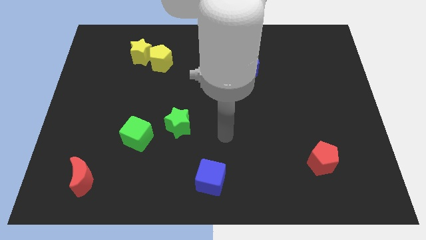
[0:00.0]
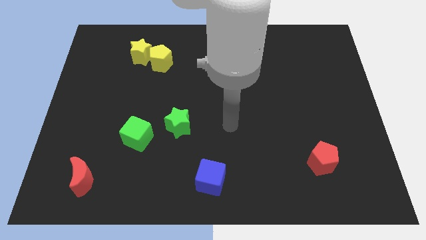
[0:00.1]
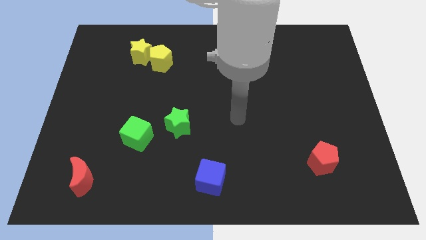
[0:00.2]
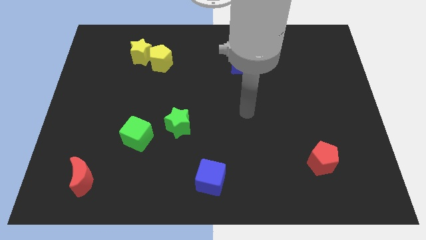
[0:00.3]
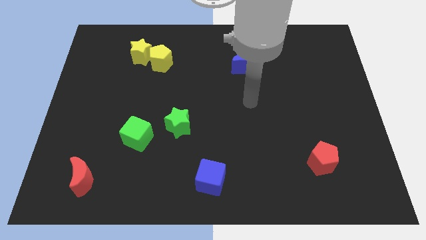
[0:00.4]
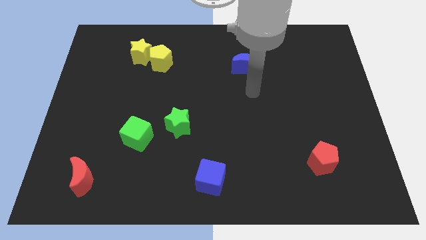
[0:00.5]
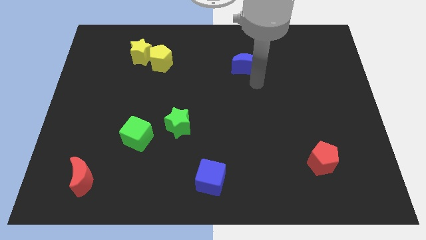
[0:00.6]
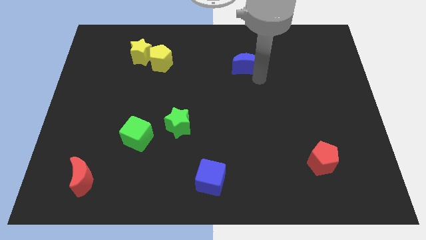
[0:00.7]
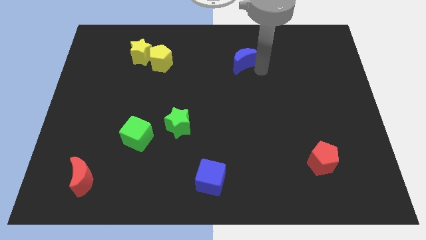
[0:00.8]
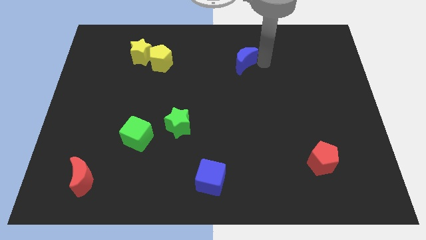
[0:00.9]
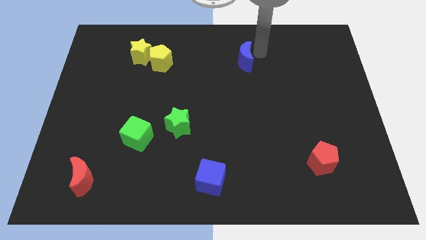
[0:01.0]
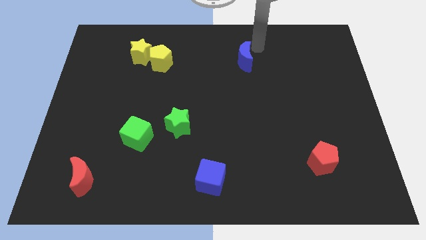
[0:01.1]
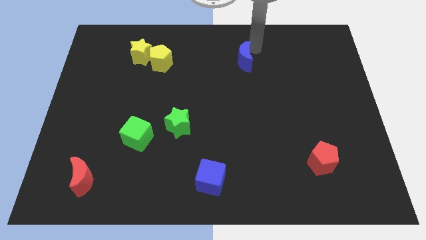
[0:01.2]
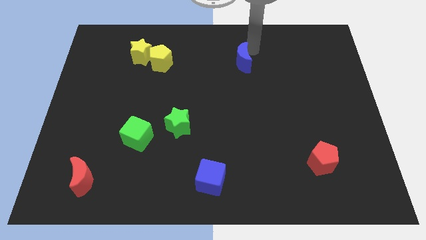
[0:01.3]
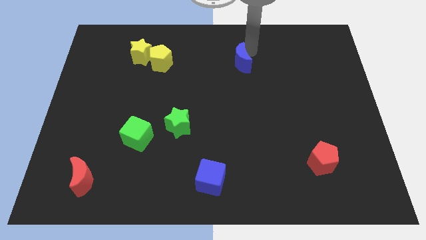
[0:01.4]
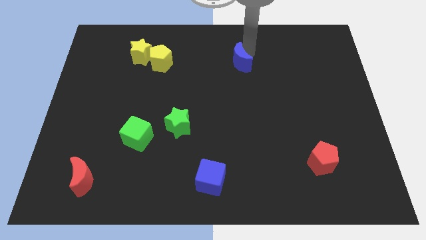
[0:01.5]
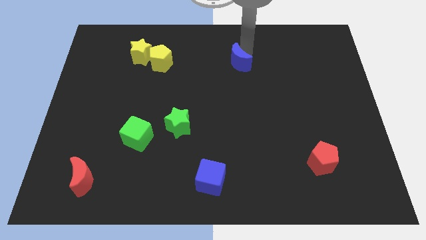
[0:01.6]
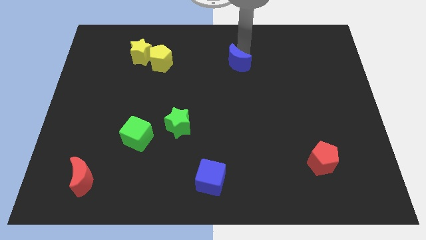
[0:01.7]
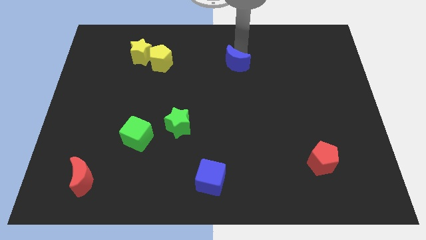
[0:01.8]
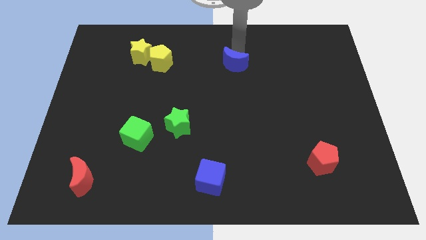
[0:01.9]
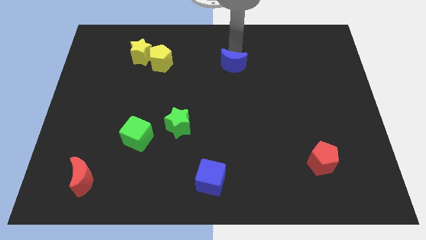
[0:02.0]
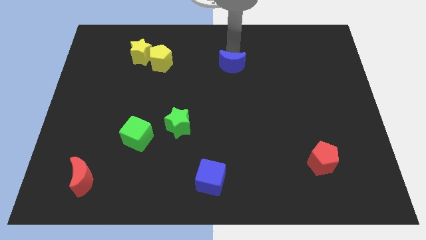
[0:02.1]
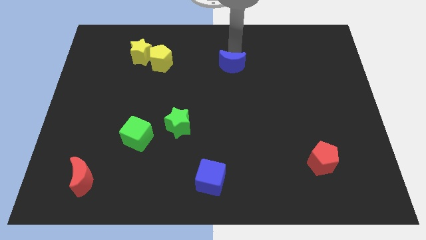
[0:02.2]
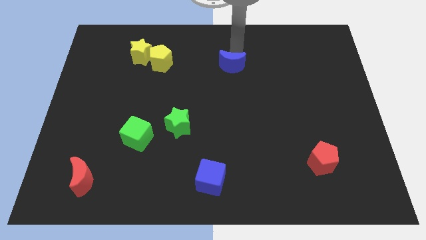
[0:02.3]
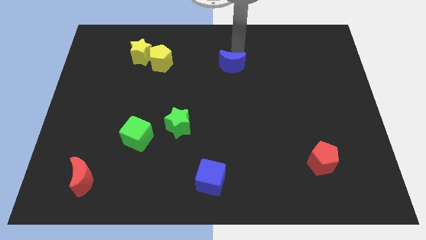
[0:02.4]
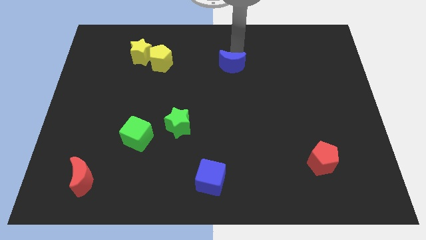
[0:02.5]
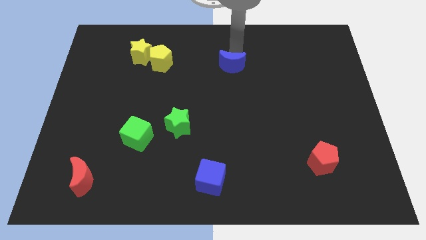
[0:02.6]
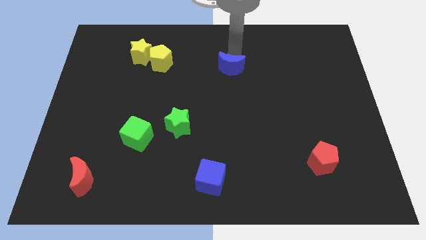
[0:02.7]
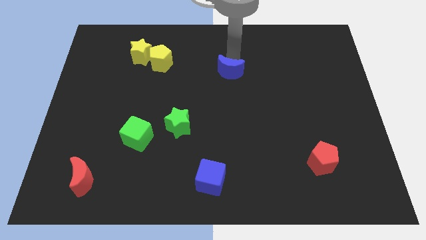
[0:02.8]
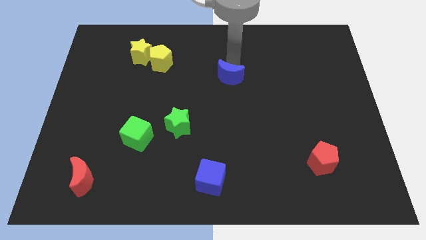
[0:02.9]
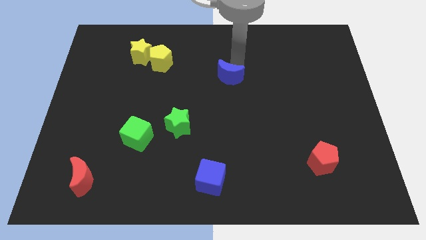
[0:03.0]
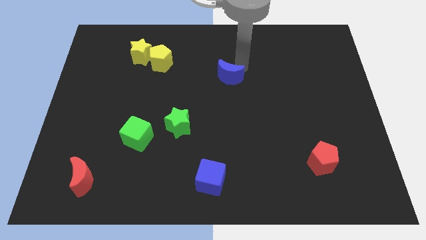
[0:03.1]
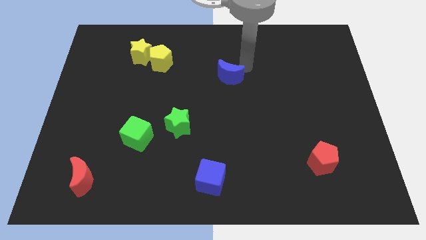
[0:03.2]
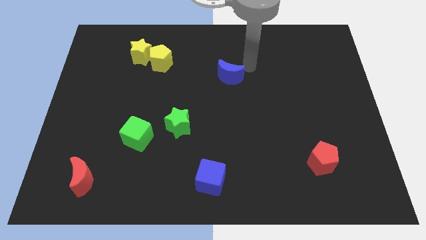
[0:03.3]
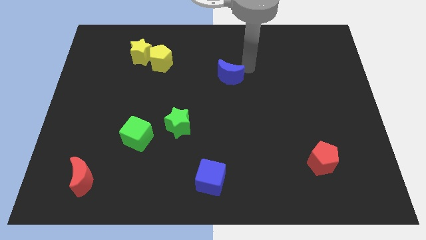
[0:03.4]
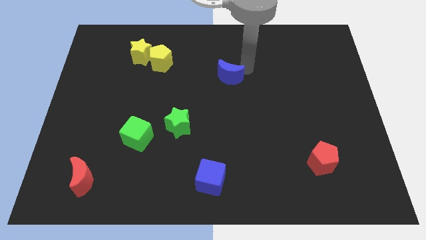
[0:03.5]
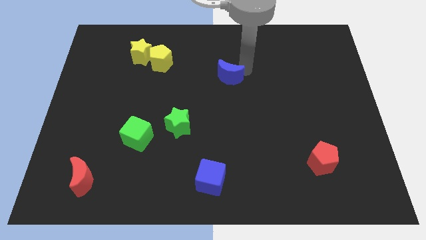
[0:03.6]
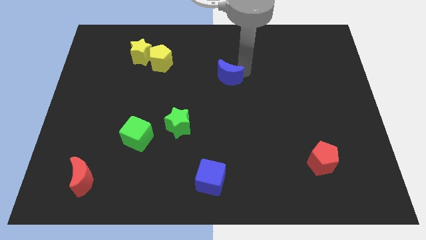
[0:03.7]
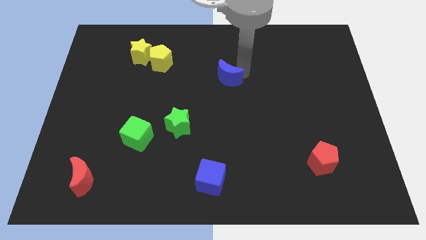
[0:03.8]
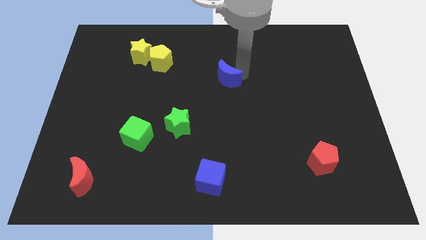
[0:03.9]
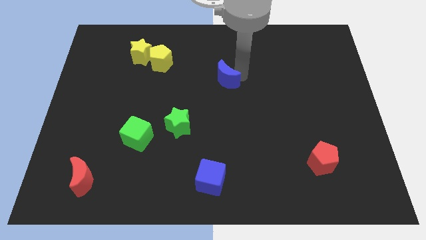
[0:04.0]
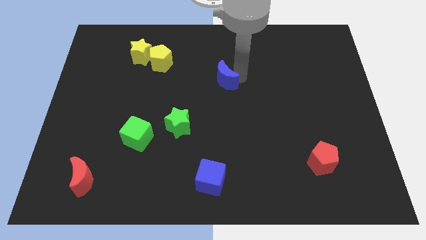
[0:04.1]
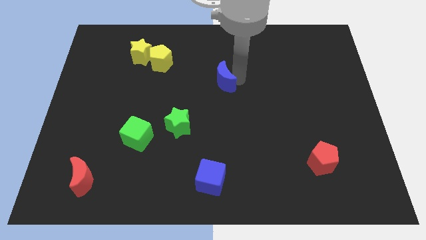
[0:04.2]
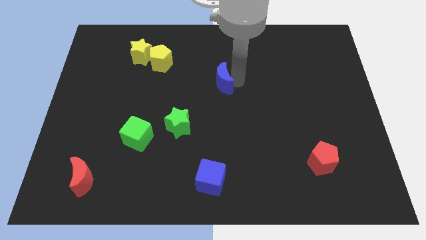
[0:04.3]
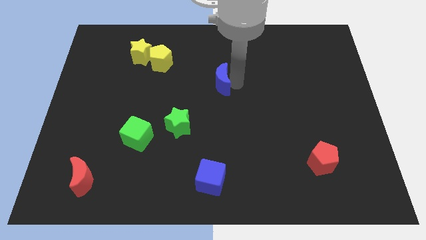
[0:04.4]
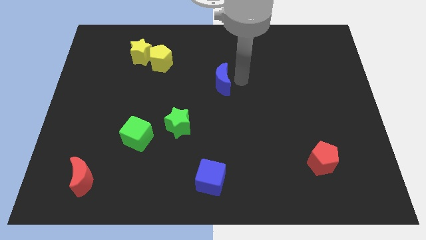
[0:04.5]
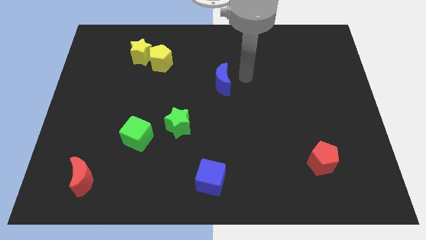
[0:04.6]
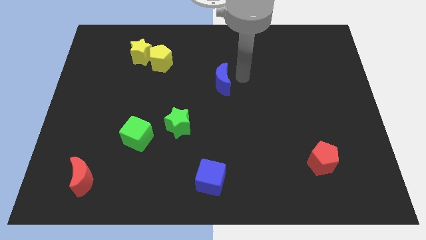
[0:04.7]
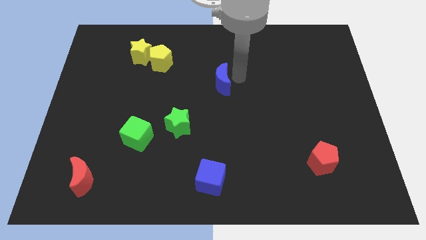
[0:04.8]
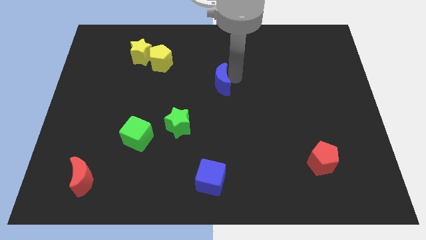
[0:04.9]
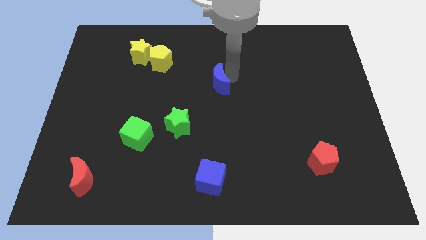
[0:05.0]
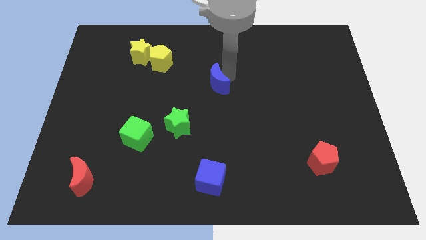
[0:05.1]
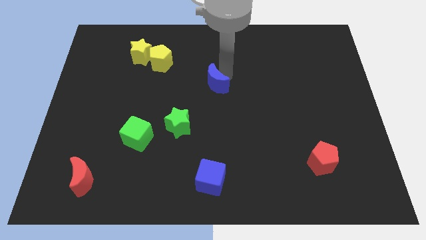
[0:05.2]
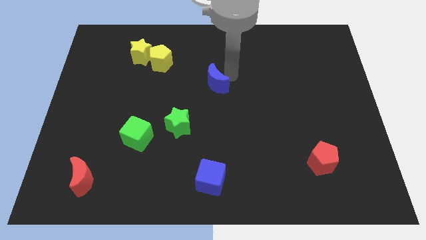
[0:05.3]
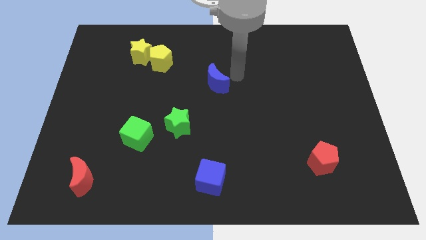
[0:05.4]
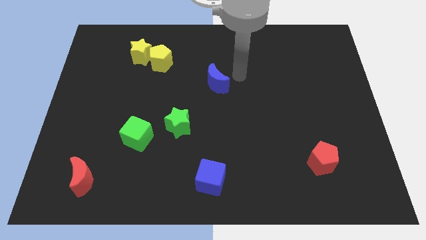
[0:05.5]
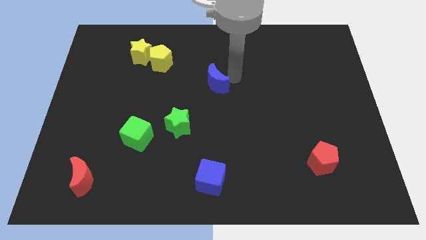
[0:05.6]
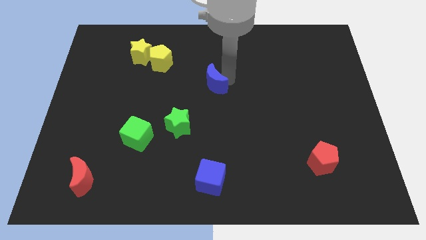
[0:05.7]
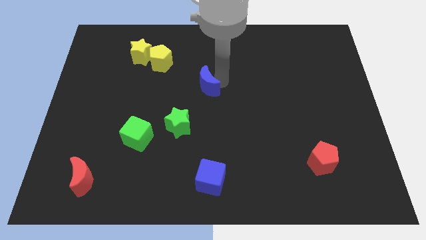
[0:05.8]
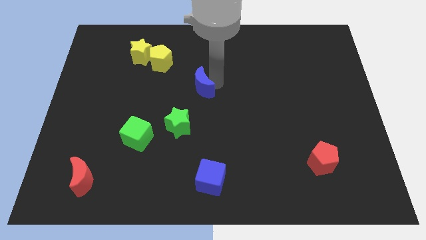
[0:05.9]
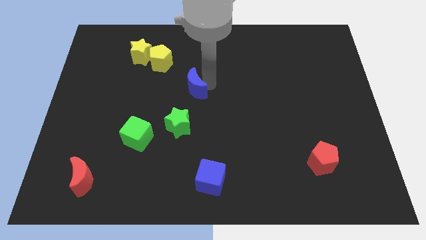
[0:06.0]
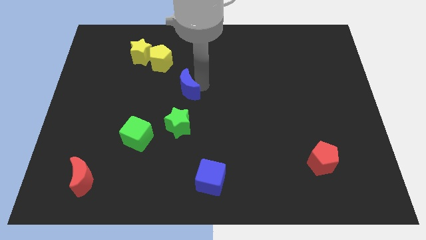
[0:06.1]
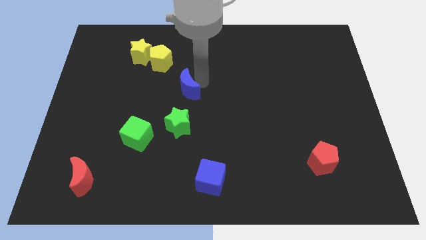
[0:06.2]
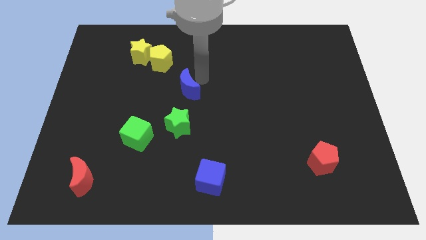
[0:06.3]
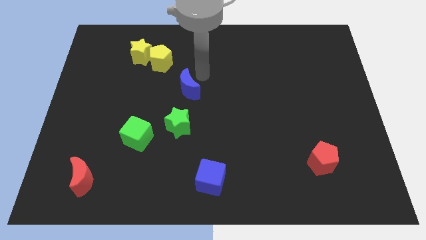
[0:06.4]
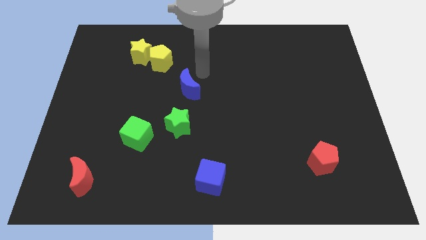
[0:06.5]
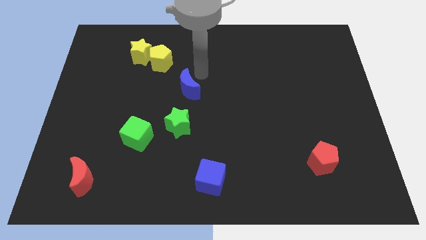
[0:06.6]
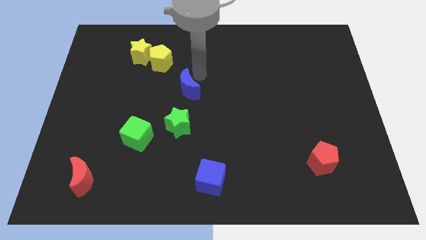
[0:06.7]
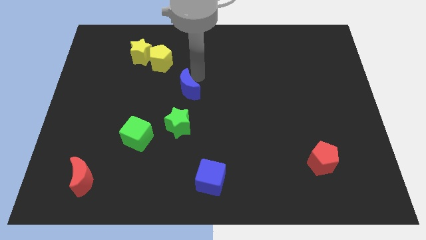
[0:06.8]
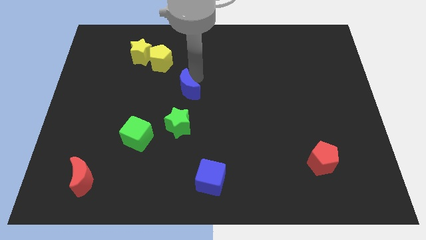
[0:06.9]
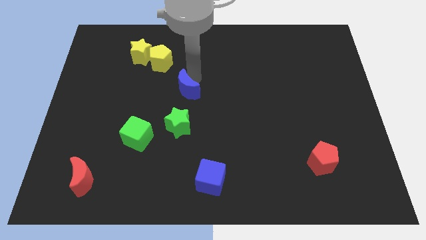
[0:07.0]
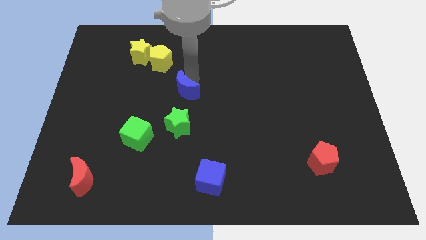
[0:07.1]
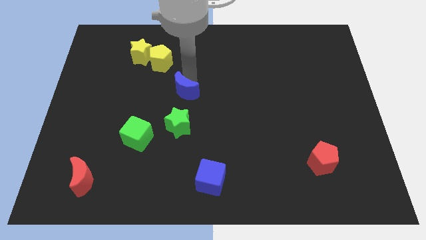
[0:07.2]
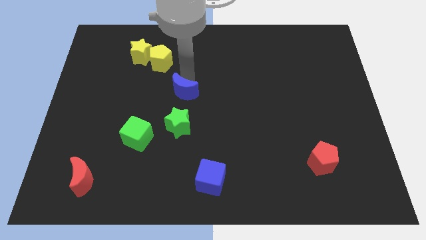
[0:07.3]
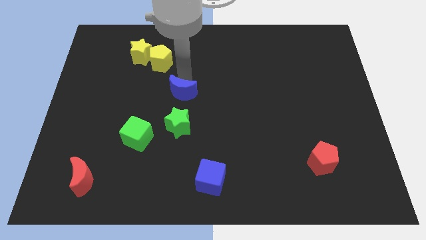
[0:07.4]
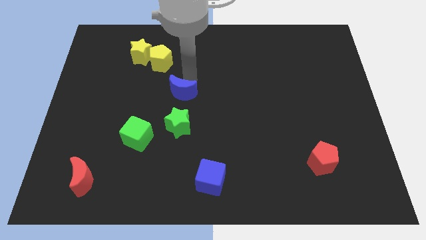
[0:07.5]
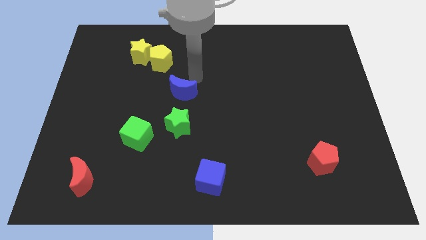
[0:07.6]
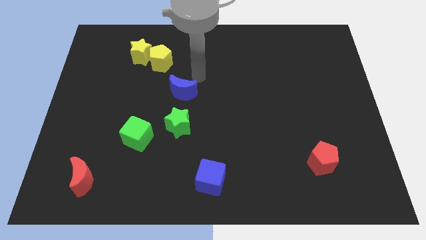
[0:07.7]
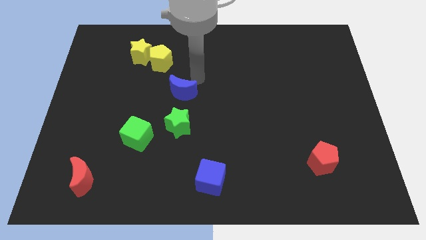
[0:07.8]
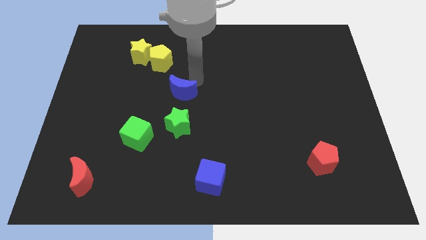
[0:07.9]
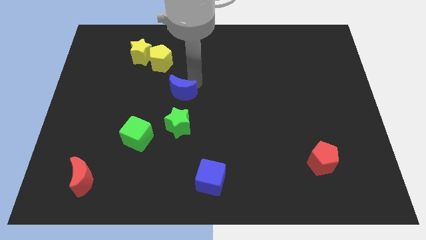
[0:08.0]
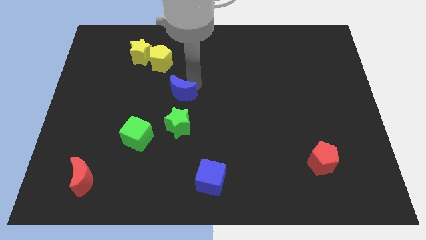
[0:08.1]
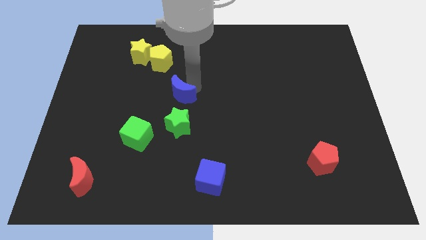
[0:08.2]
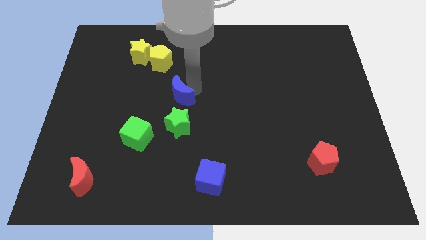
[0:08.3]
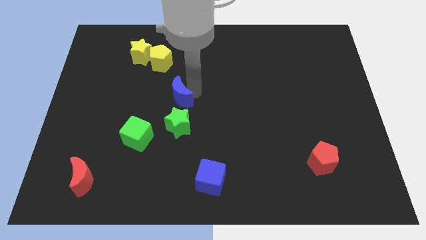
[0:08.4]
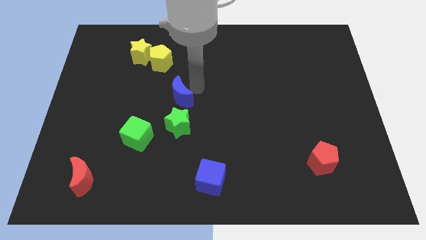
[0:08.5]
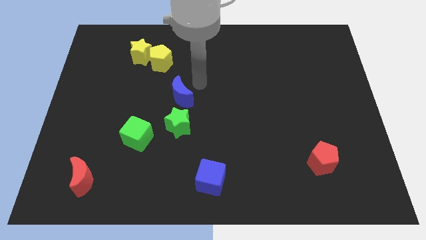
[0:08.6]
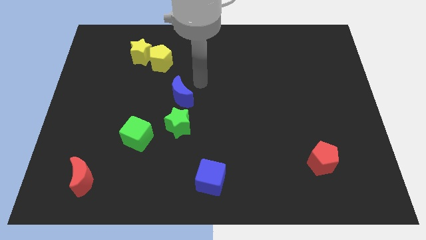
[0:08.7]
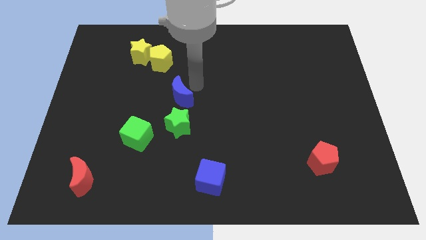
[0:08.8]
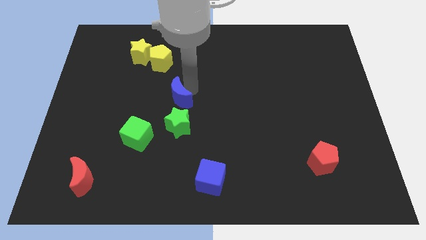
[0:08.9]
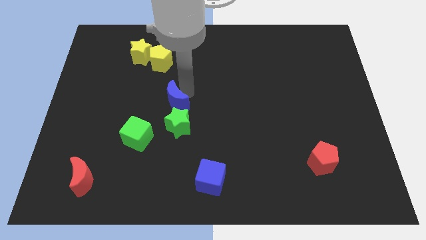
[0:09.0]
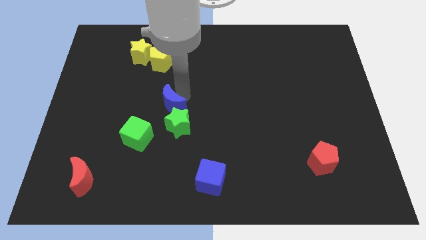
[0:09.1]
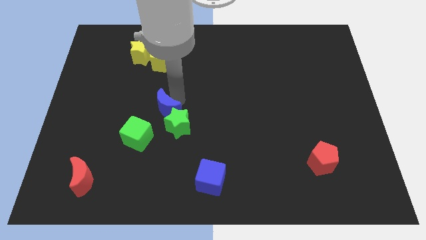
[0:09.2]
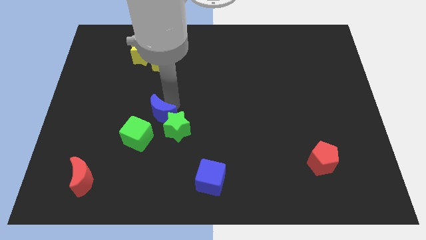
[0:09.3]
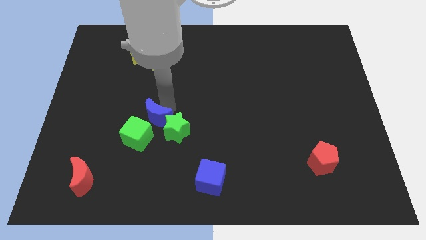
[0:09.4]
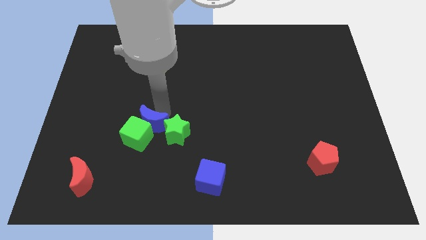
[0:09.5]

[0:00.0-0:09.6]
slide the blue moon next to the green cube
